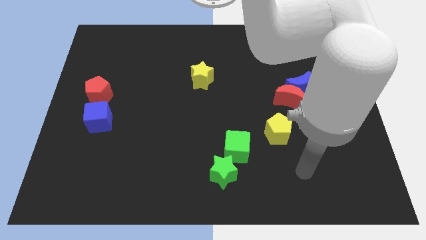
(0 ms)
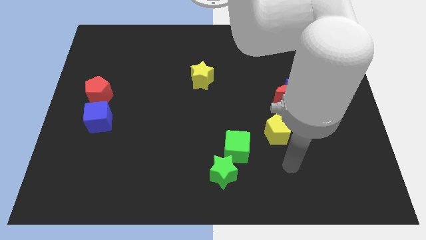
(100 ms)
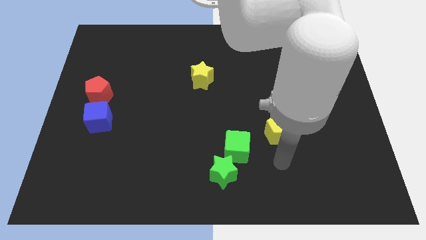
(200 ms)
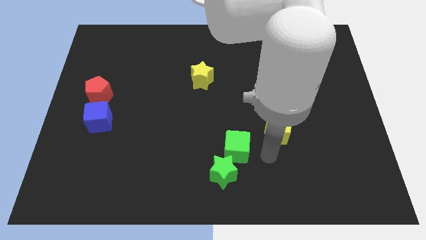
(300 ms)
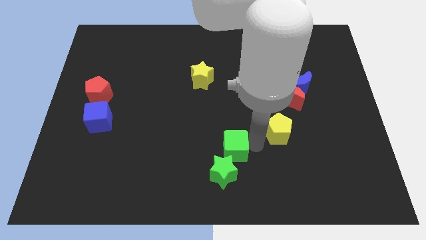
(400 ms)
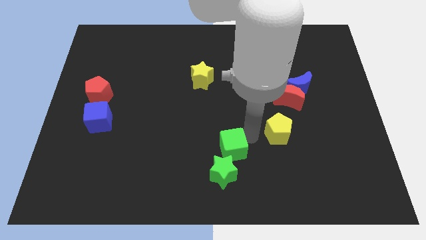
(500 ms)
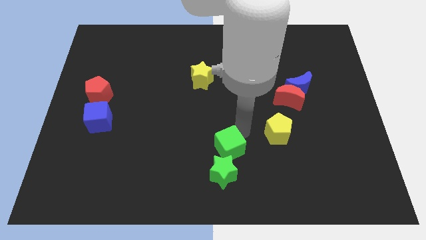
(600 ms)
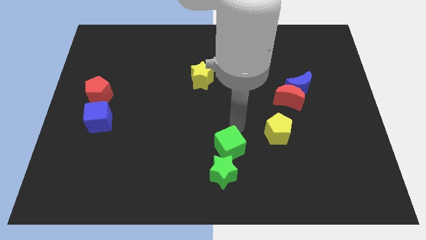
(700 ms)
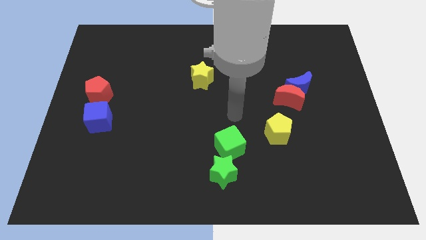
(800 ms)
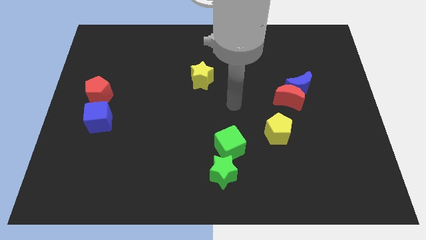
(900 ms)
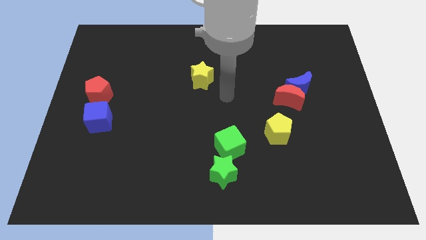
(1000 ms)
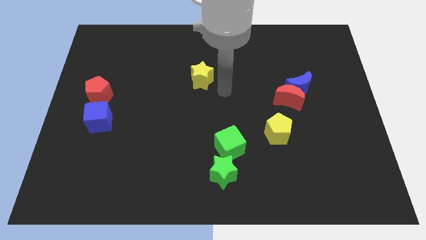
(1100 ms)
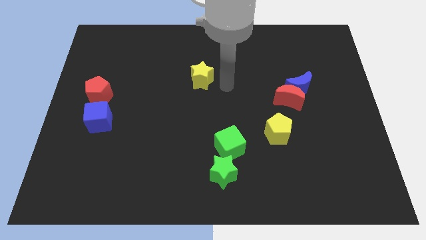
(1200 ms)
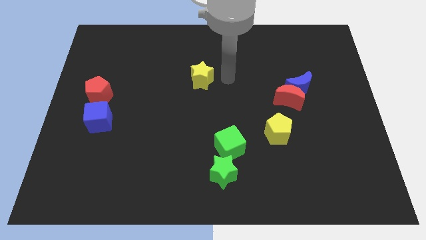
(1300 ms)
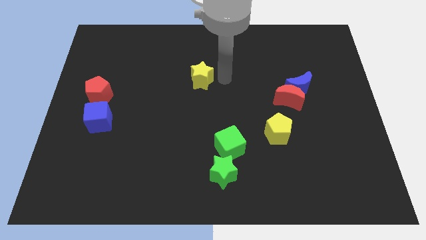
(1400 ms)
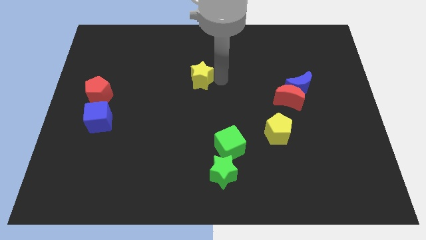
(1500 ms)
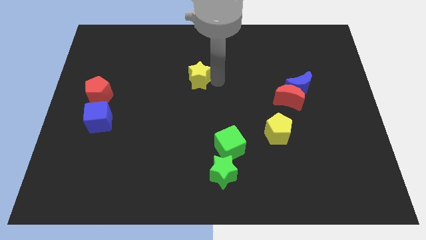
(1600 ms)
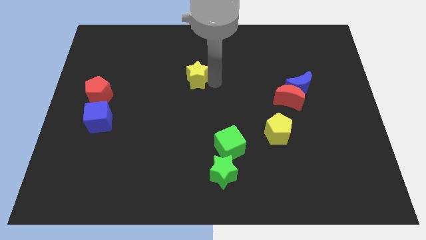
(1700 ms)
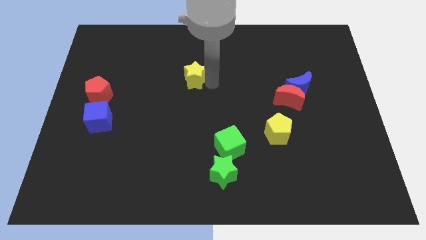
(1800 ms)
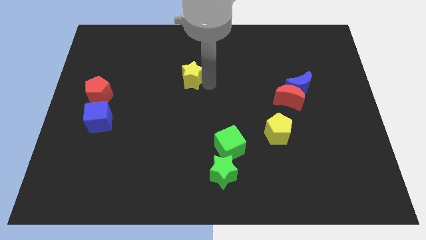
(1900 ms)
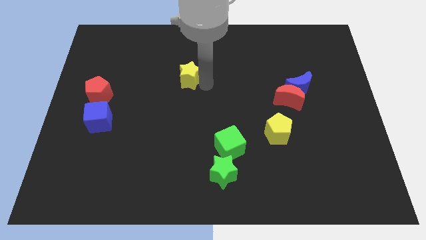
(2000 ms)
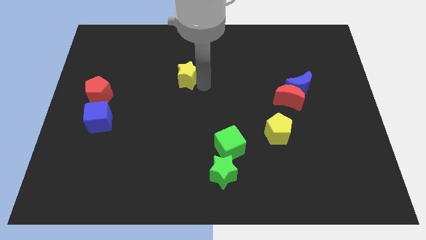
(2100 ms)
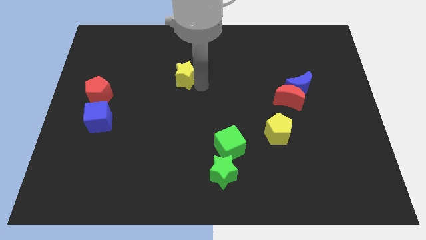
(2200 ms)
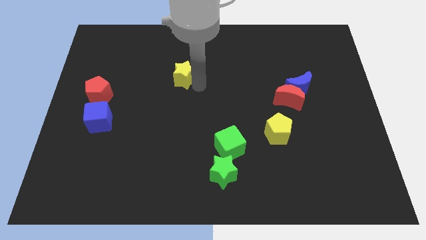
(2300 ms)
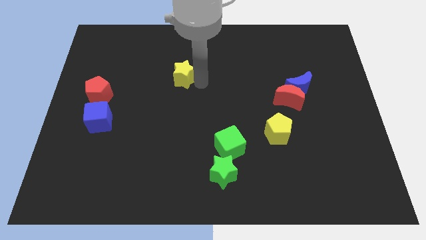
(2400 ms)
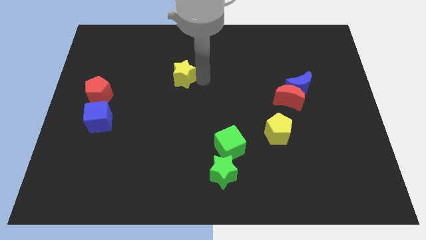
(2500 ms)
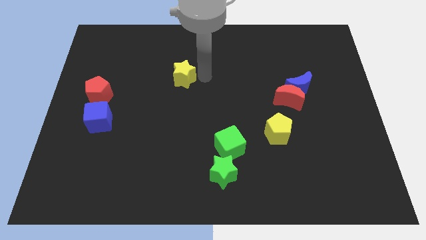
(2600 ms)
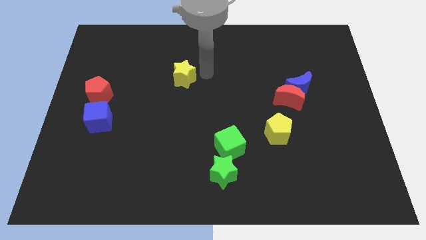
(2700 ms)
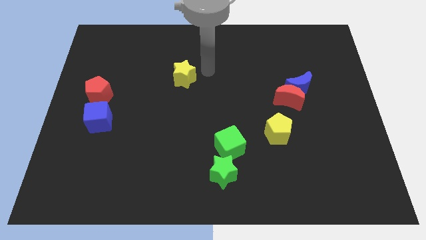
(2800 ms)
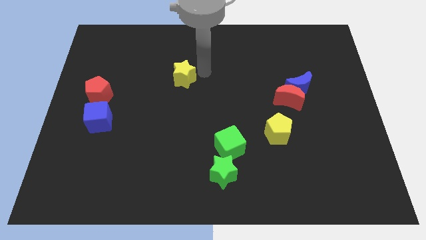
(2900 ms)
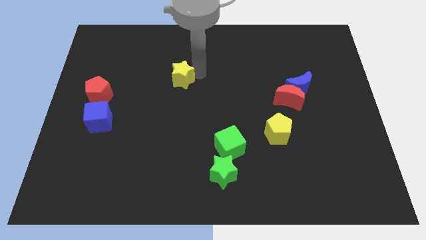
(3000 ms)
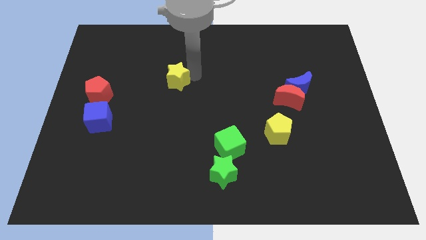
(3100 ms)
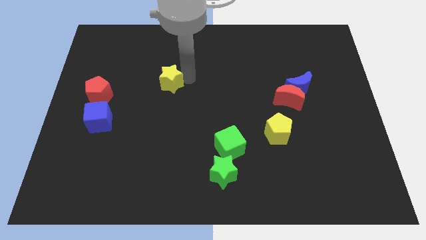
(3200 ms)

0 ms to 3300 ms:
slightly slide the yellow star left

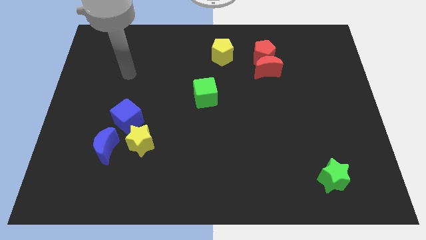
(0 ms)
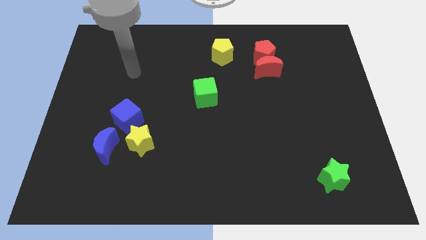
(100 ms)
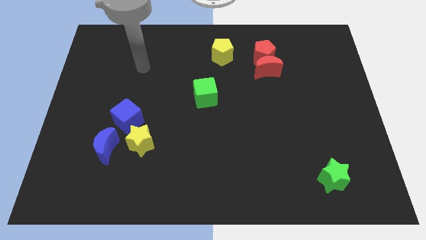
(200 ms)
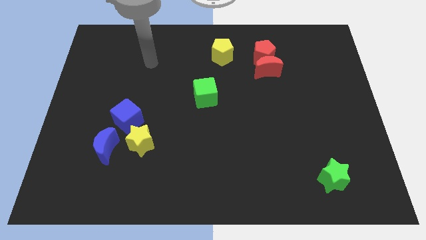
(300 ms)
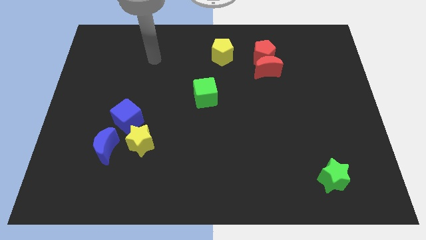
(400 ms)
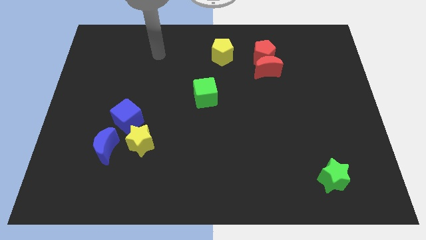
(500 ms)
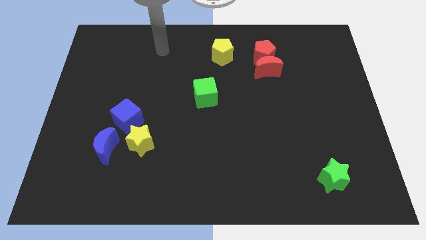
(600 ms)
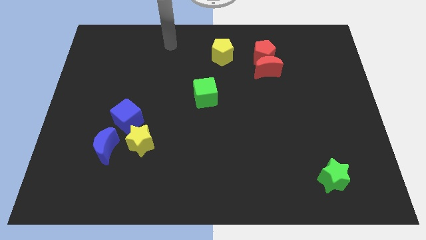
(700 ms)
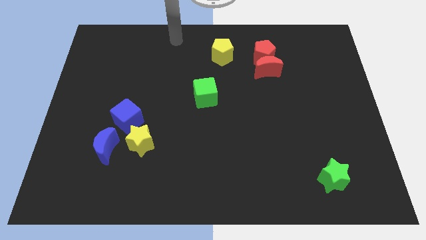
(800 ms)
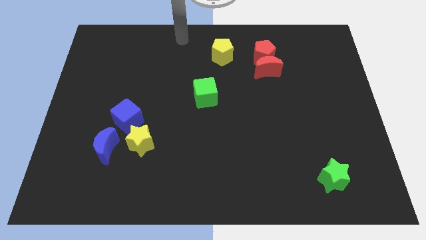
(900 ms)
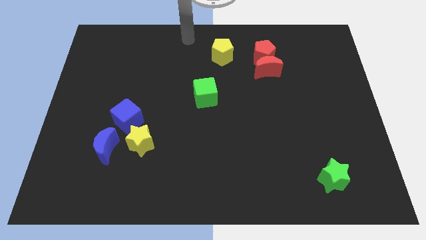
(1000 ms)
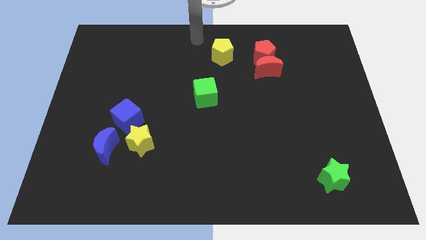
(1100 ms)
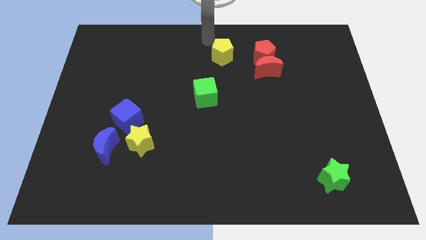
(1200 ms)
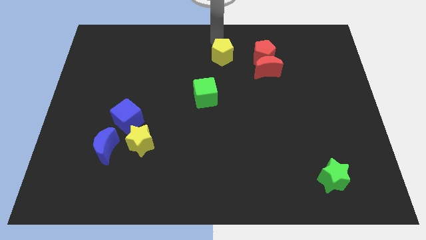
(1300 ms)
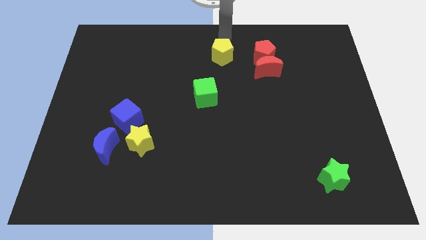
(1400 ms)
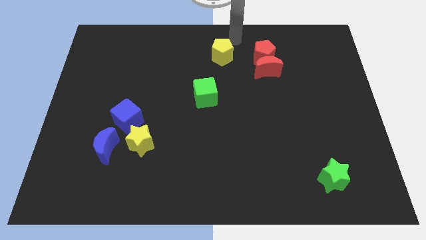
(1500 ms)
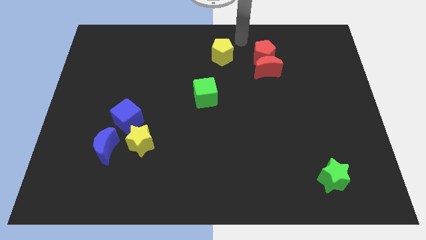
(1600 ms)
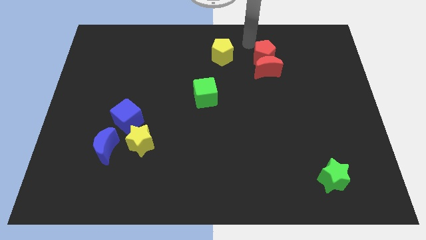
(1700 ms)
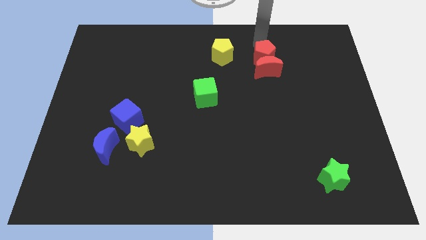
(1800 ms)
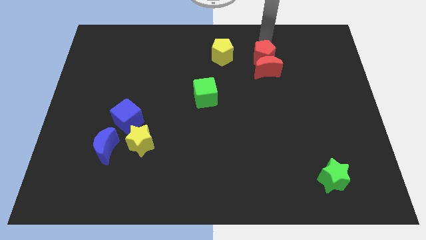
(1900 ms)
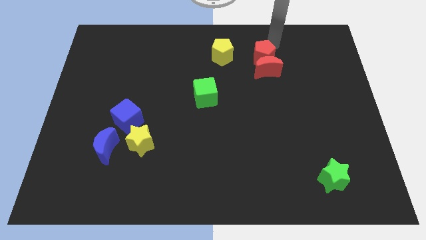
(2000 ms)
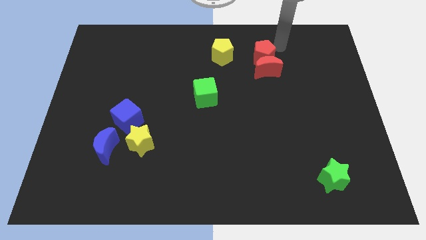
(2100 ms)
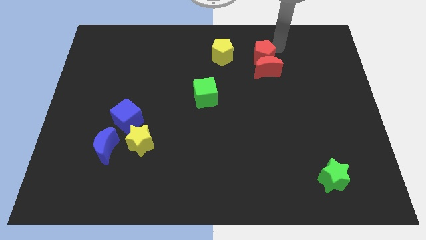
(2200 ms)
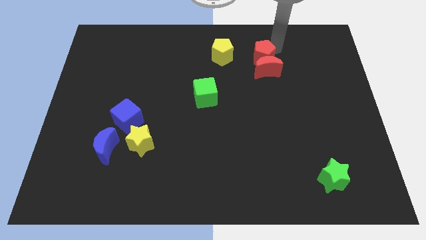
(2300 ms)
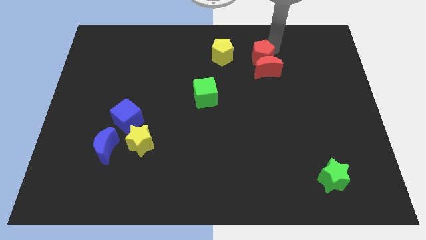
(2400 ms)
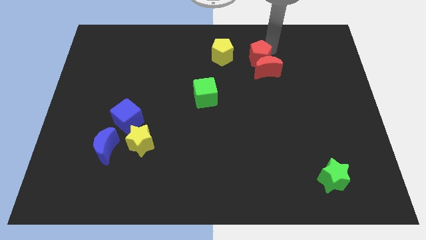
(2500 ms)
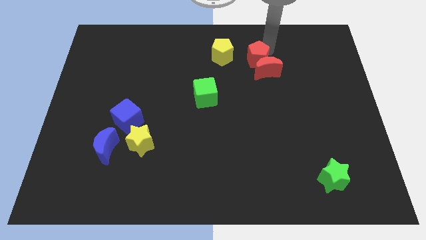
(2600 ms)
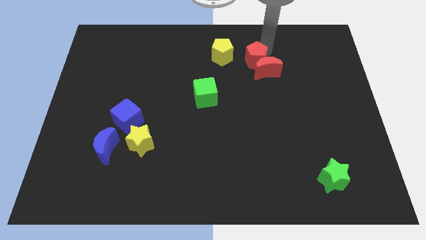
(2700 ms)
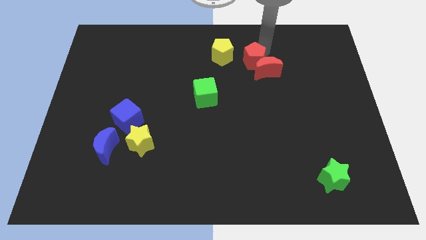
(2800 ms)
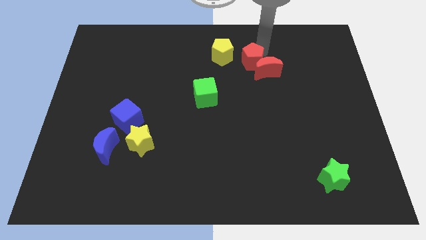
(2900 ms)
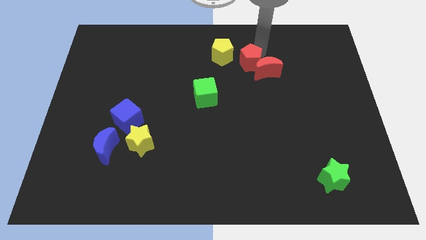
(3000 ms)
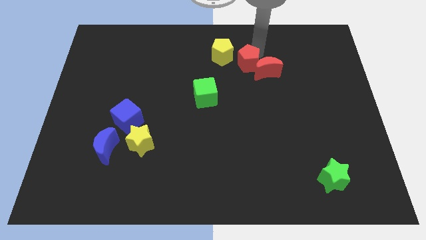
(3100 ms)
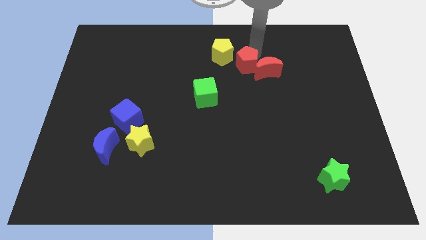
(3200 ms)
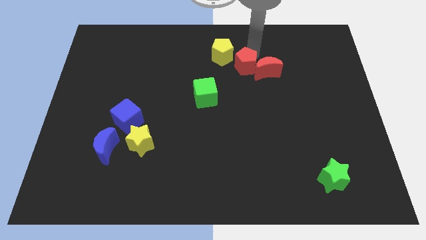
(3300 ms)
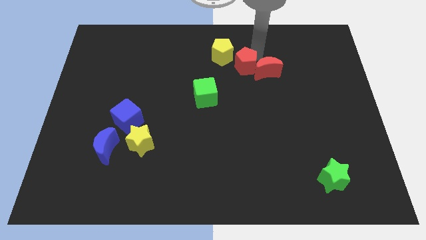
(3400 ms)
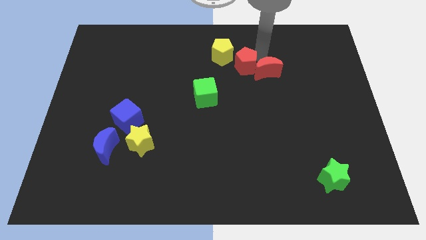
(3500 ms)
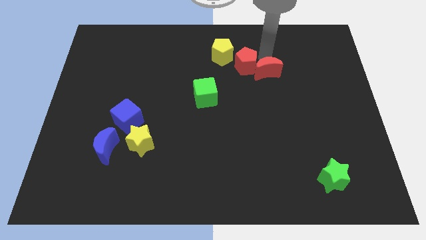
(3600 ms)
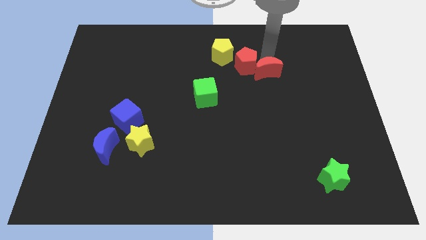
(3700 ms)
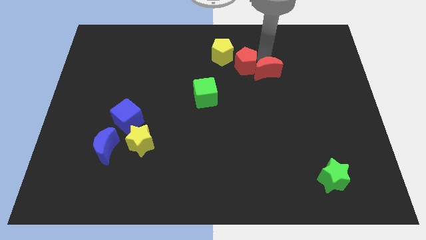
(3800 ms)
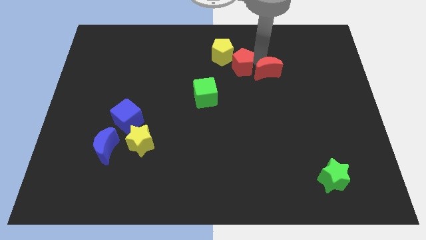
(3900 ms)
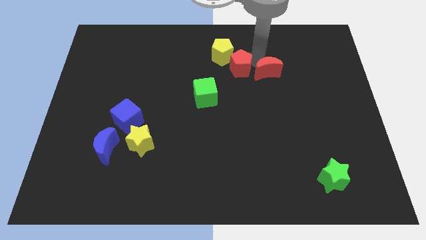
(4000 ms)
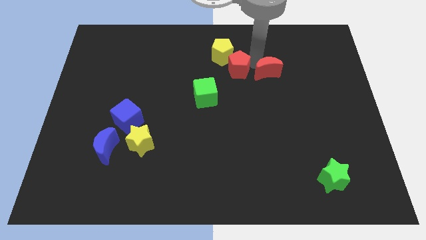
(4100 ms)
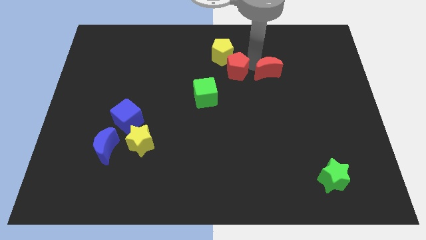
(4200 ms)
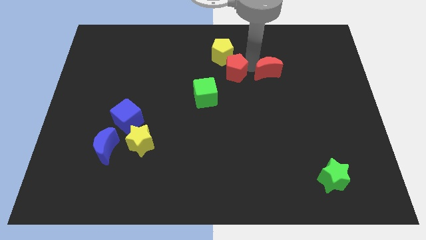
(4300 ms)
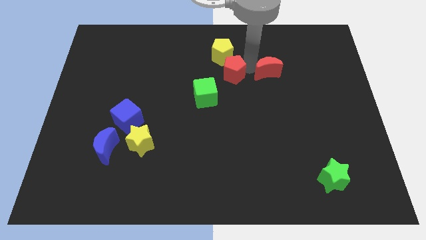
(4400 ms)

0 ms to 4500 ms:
slide the red pentagon left a little bit

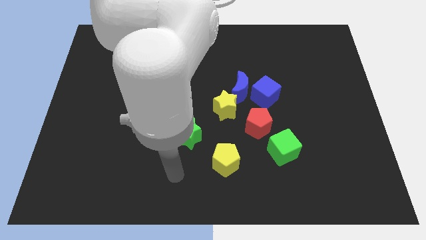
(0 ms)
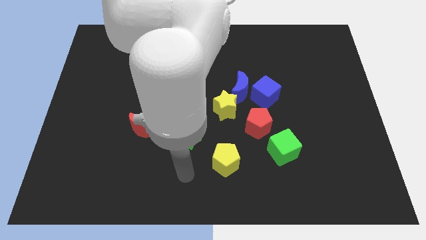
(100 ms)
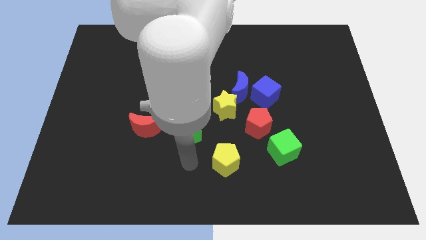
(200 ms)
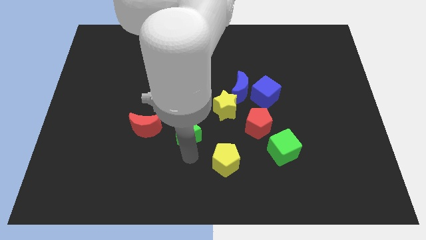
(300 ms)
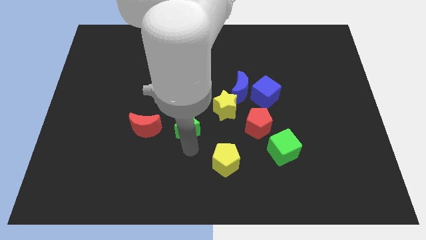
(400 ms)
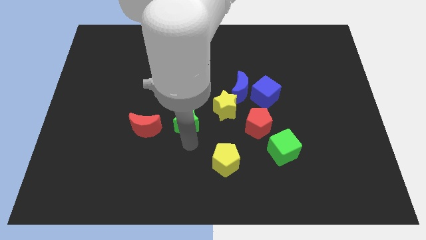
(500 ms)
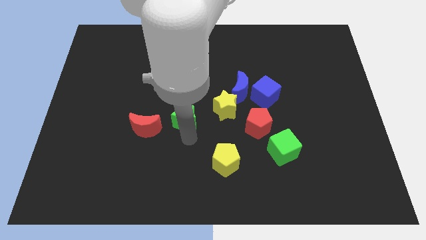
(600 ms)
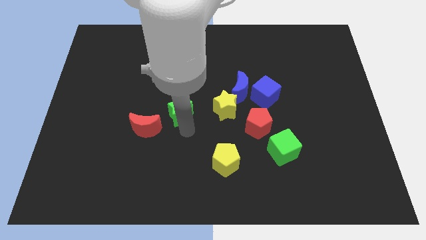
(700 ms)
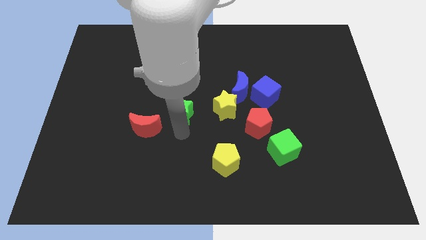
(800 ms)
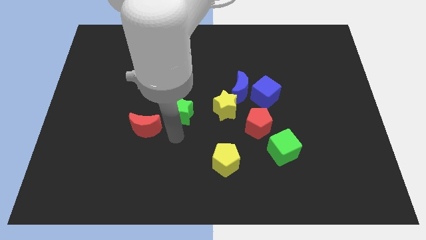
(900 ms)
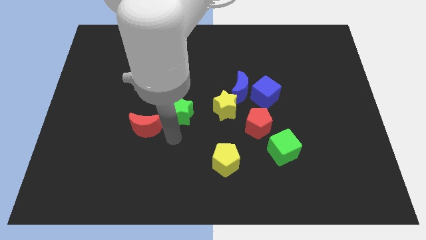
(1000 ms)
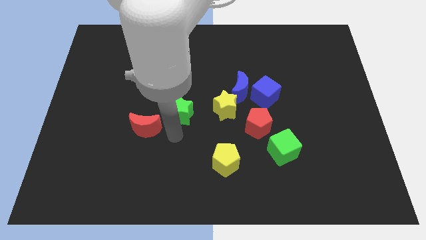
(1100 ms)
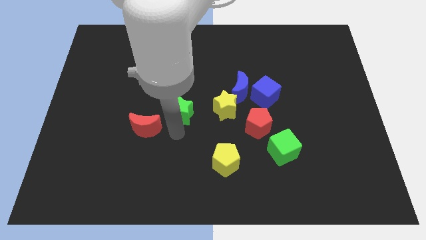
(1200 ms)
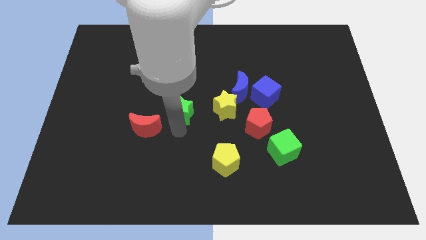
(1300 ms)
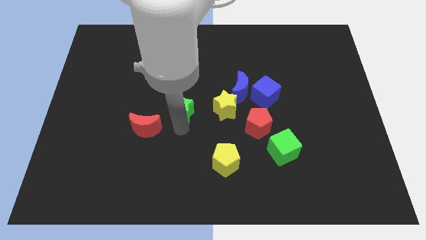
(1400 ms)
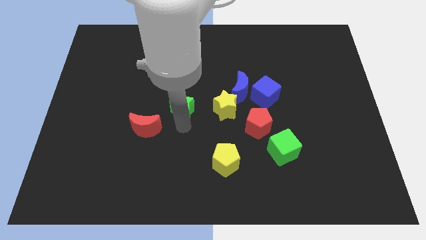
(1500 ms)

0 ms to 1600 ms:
slightly slide the green star upwards
